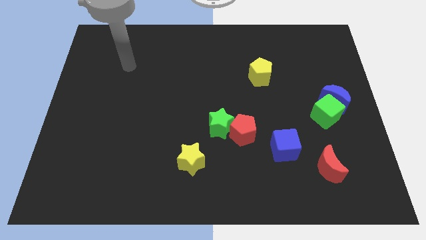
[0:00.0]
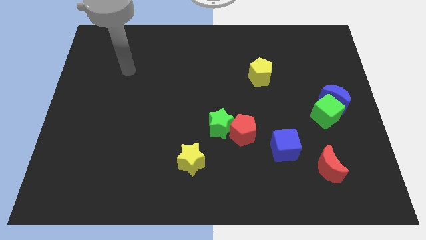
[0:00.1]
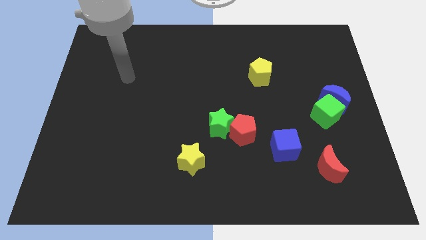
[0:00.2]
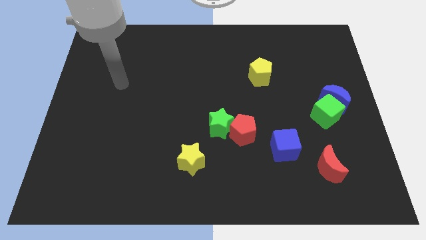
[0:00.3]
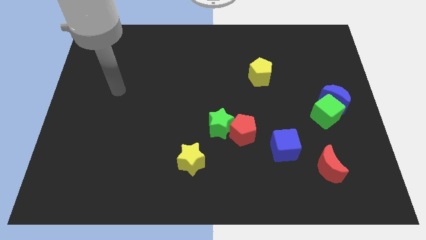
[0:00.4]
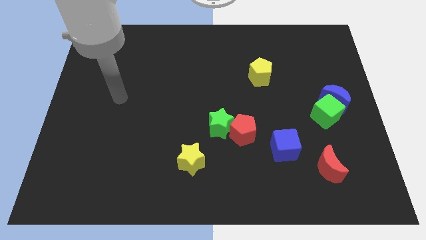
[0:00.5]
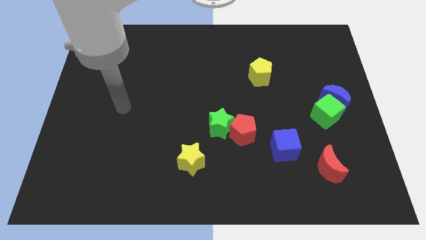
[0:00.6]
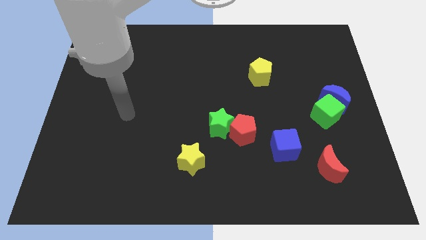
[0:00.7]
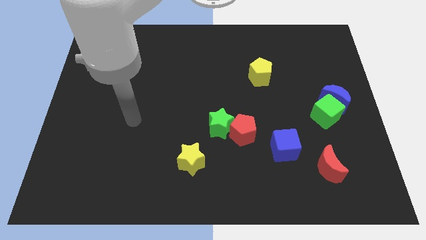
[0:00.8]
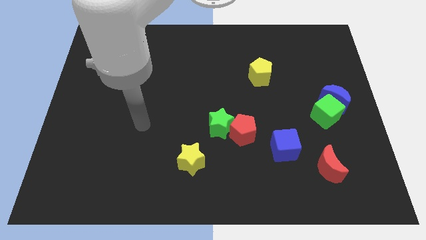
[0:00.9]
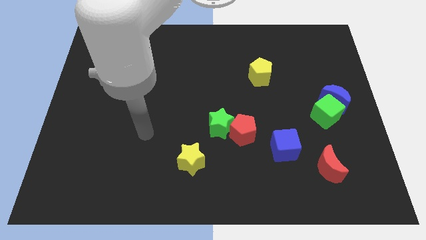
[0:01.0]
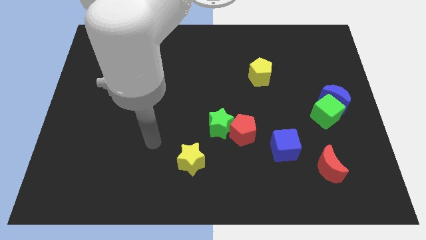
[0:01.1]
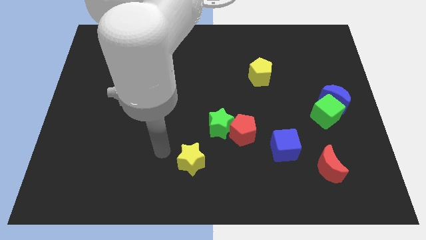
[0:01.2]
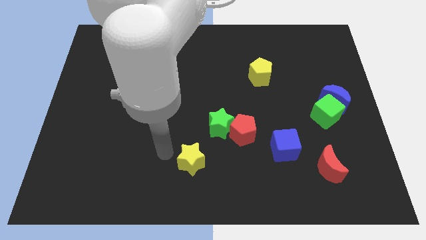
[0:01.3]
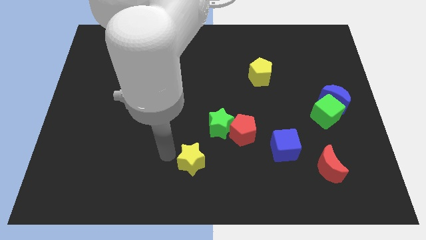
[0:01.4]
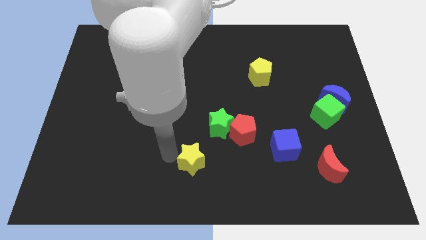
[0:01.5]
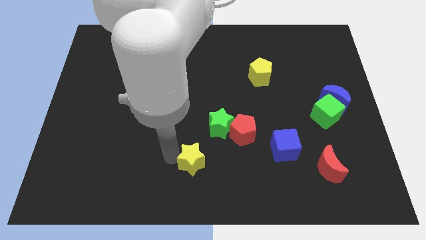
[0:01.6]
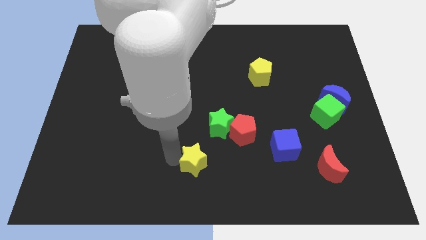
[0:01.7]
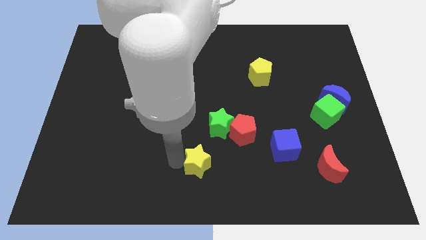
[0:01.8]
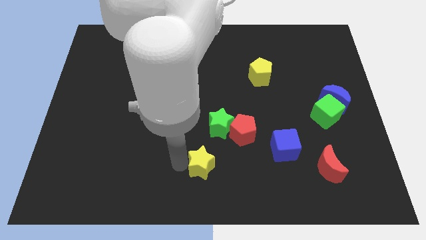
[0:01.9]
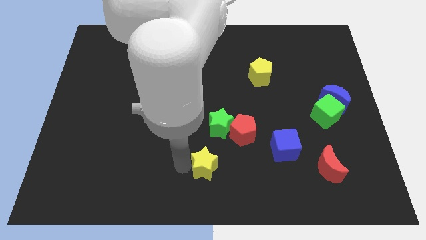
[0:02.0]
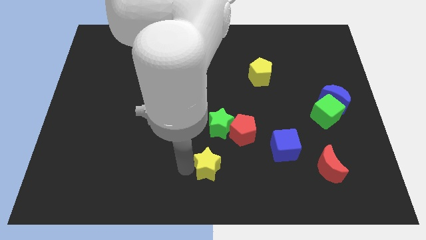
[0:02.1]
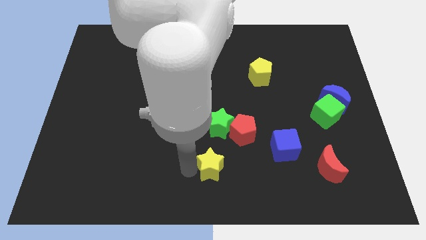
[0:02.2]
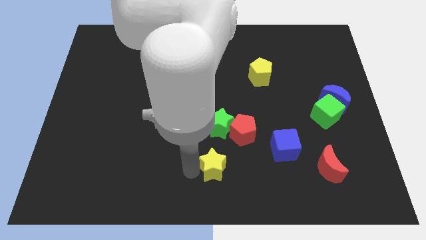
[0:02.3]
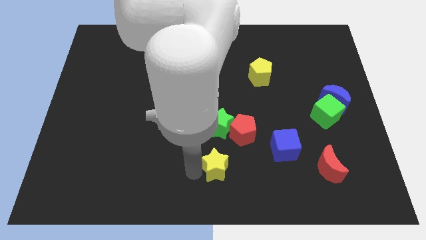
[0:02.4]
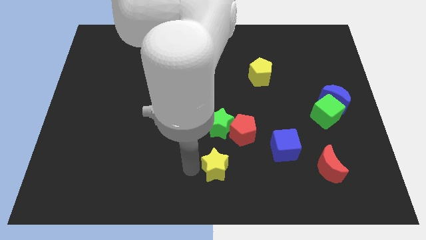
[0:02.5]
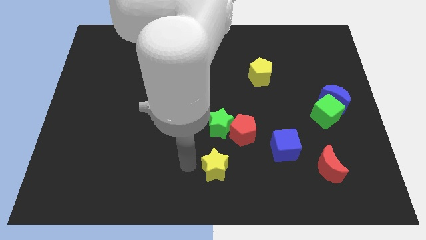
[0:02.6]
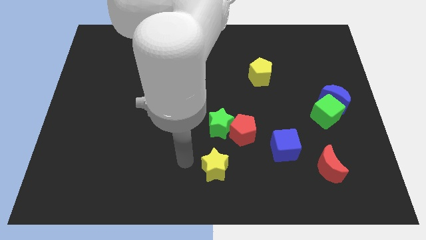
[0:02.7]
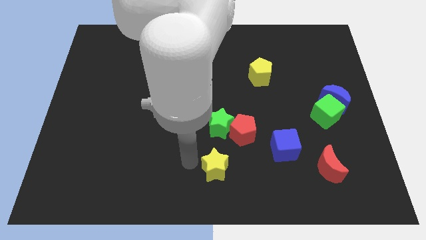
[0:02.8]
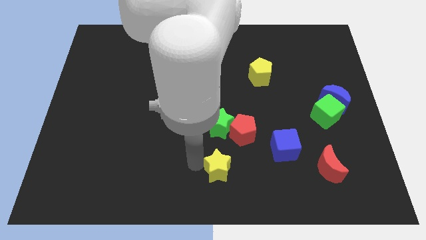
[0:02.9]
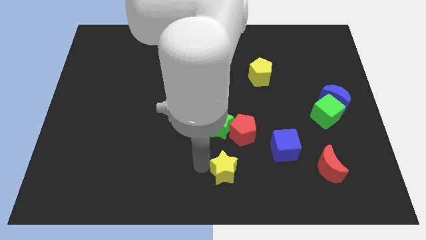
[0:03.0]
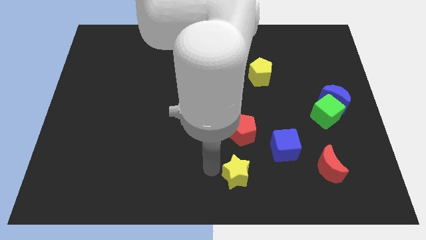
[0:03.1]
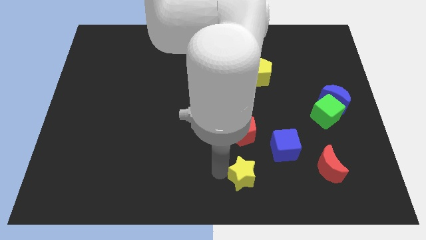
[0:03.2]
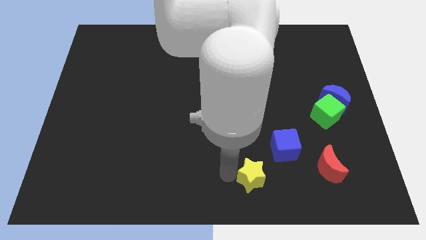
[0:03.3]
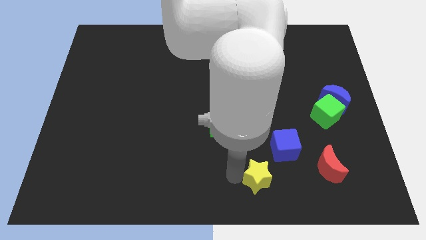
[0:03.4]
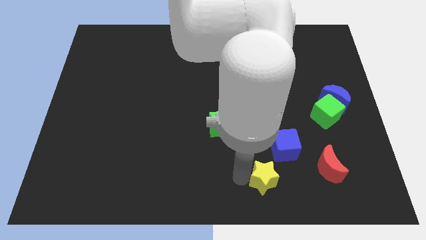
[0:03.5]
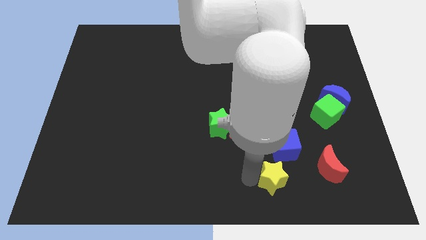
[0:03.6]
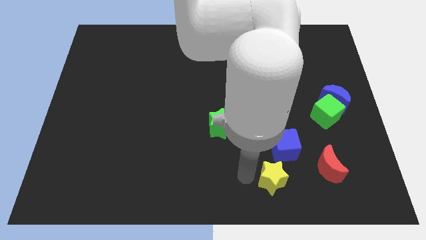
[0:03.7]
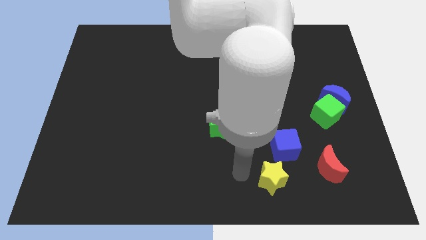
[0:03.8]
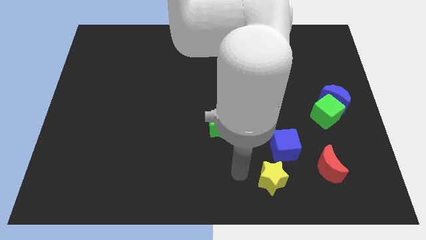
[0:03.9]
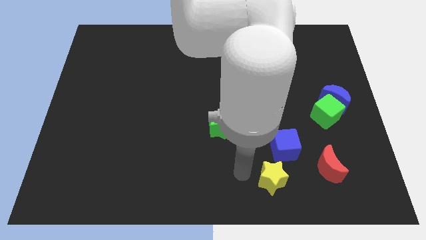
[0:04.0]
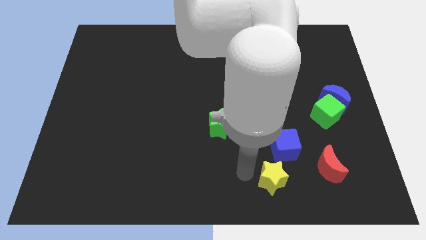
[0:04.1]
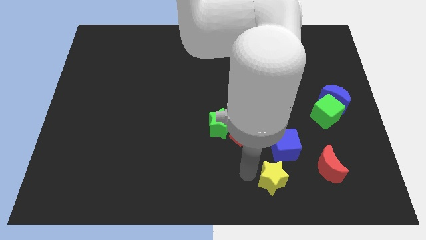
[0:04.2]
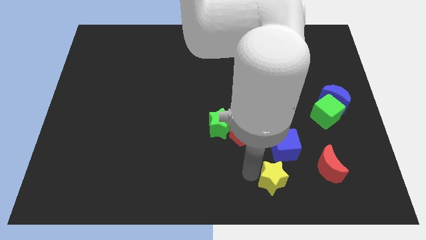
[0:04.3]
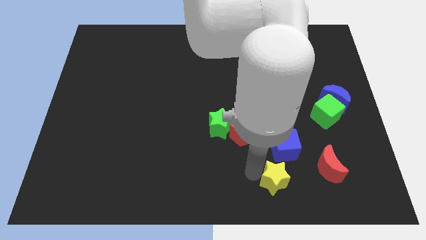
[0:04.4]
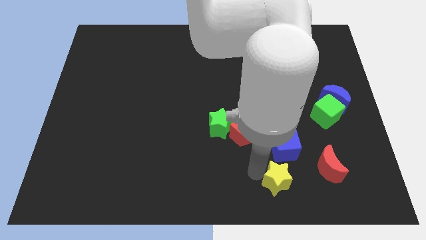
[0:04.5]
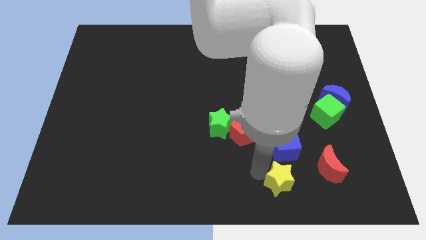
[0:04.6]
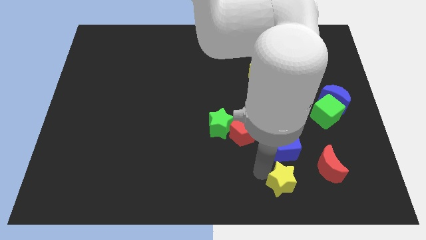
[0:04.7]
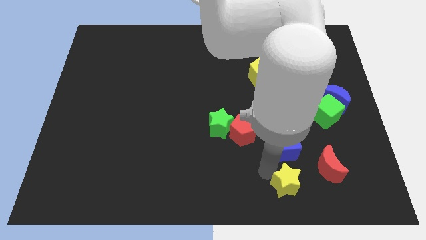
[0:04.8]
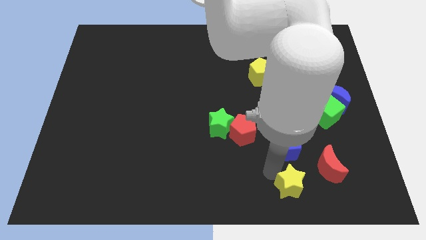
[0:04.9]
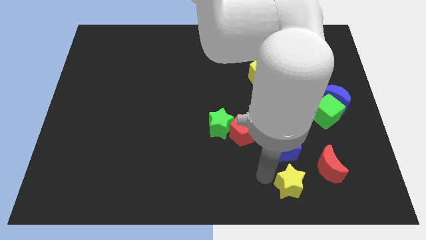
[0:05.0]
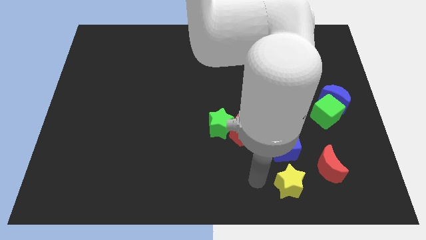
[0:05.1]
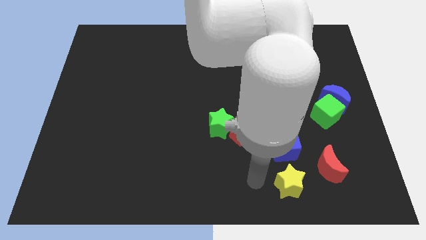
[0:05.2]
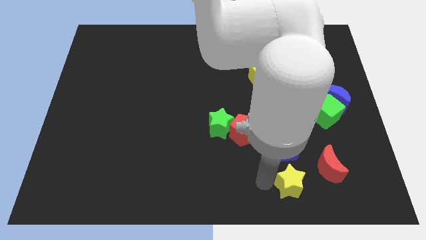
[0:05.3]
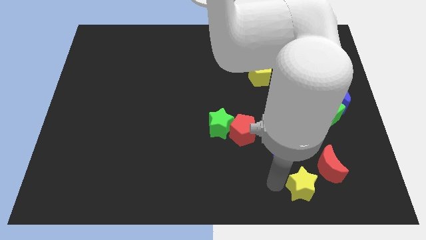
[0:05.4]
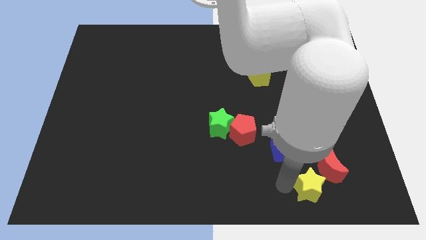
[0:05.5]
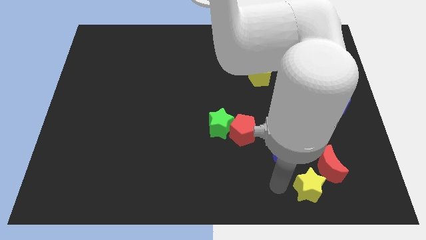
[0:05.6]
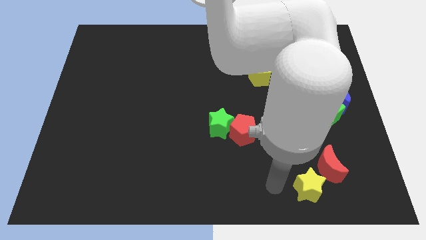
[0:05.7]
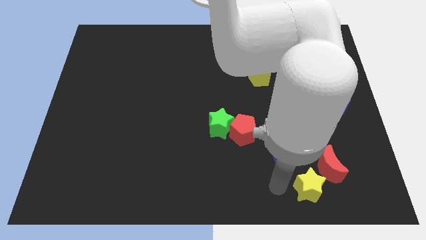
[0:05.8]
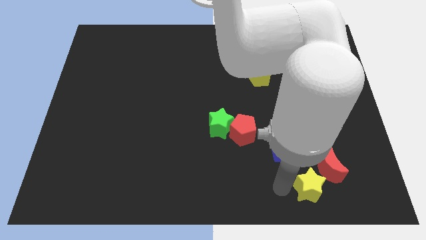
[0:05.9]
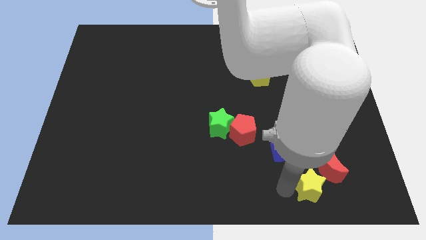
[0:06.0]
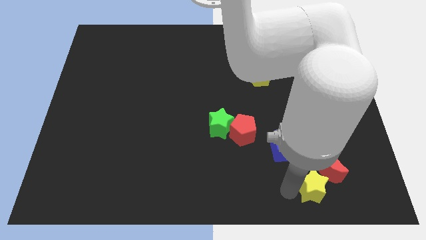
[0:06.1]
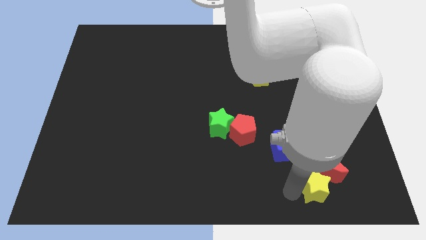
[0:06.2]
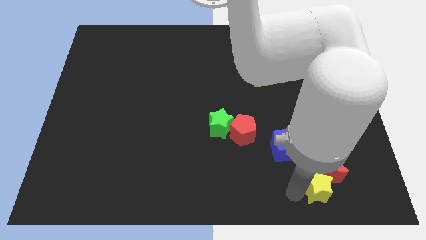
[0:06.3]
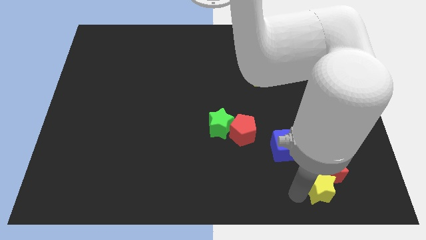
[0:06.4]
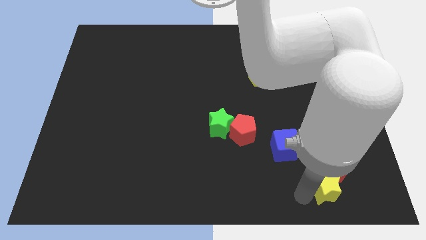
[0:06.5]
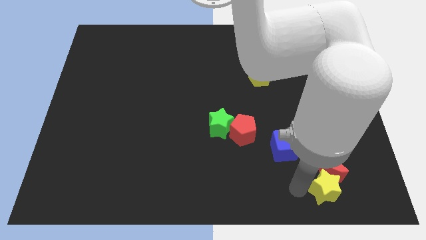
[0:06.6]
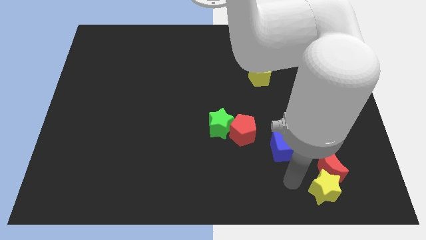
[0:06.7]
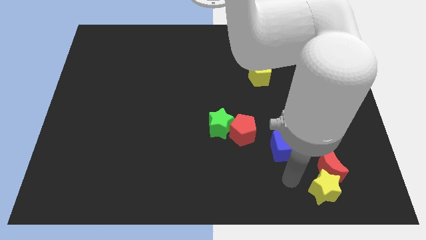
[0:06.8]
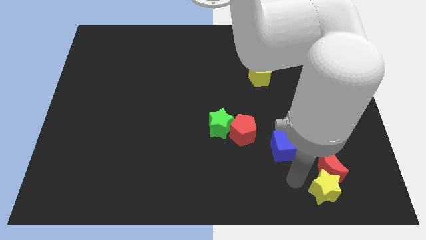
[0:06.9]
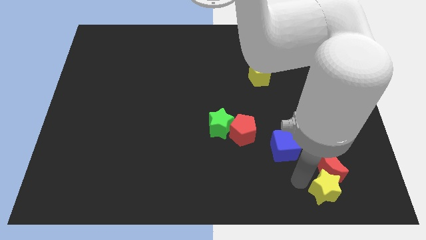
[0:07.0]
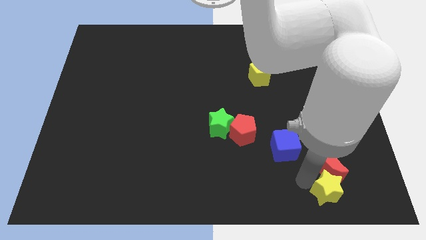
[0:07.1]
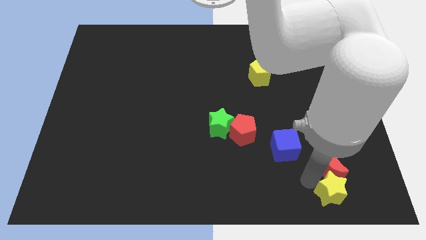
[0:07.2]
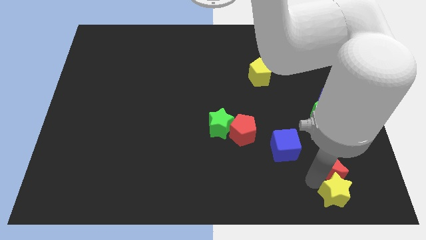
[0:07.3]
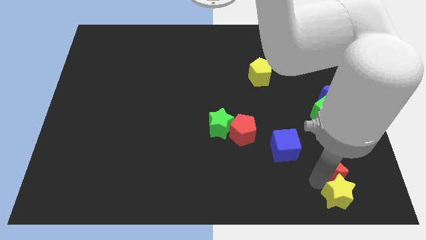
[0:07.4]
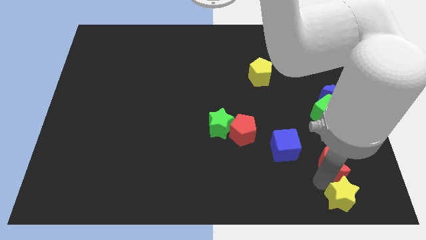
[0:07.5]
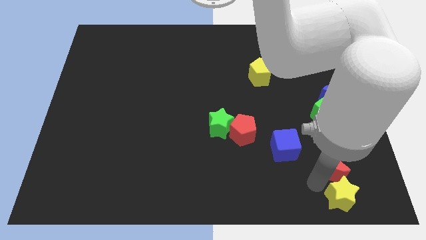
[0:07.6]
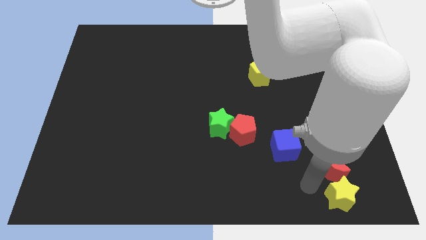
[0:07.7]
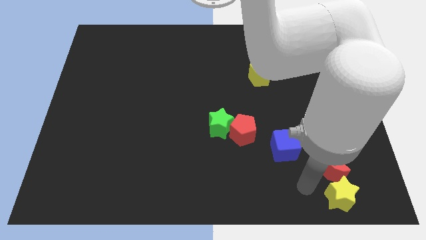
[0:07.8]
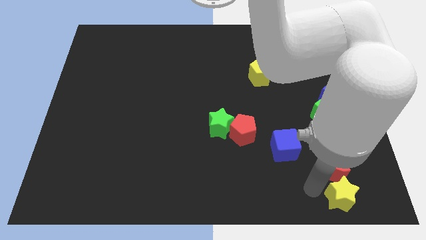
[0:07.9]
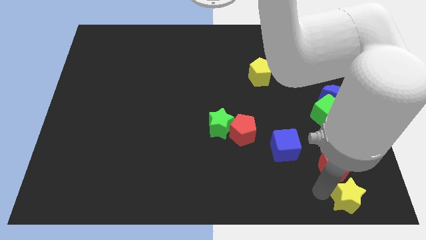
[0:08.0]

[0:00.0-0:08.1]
move the yellow star to the lower right corner
